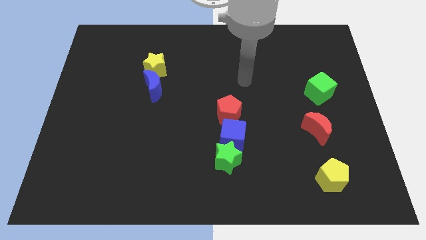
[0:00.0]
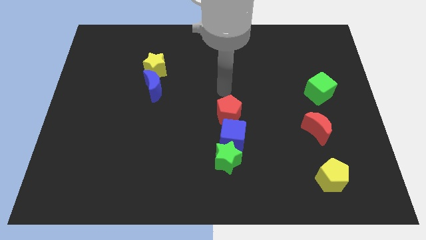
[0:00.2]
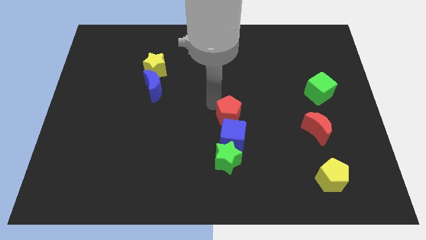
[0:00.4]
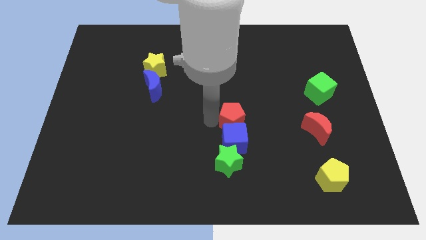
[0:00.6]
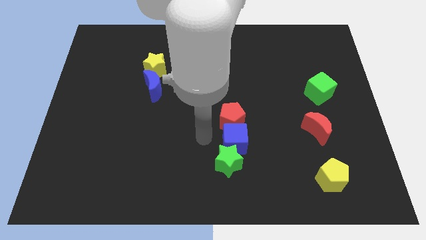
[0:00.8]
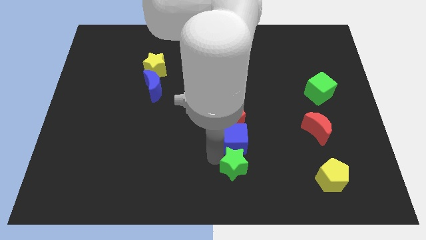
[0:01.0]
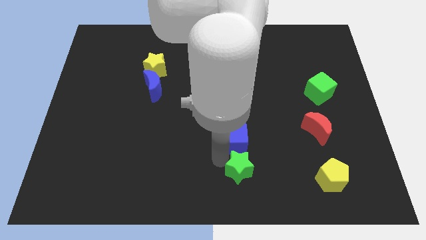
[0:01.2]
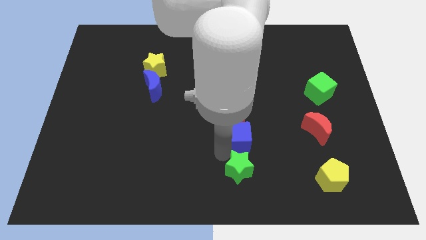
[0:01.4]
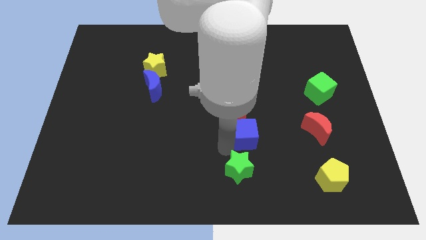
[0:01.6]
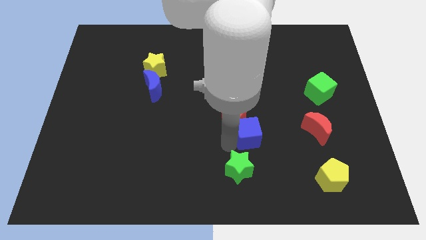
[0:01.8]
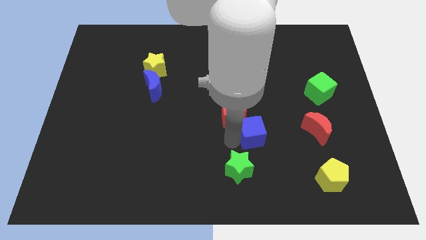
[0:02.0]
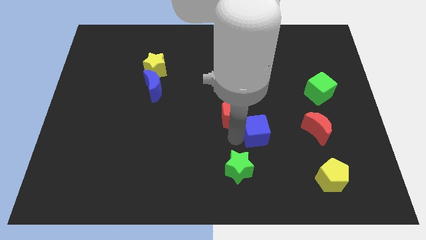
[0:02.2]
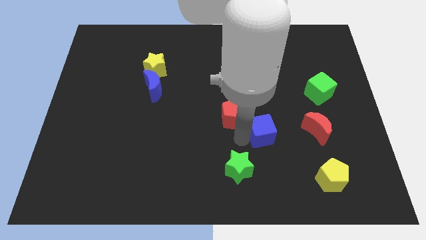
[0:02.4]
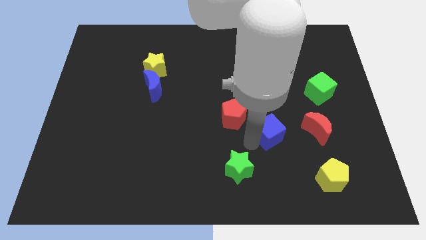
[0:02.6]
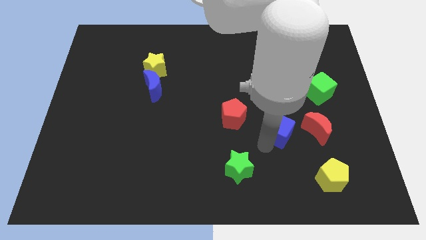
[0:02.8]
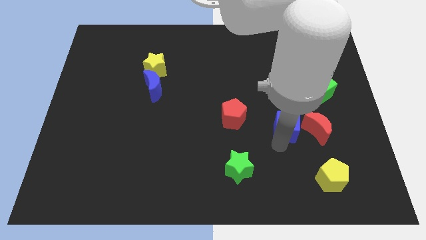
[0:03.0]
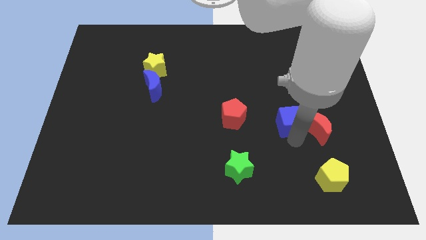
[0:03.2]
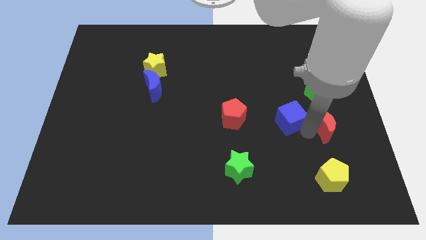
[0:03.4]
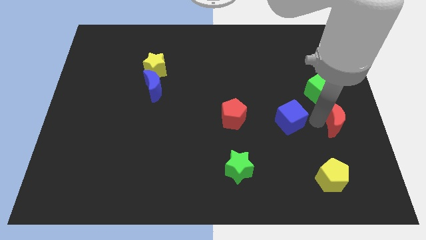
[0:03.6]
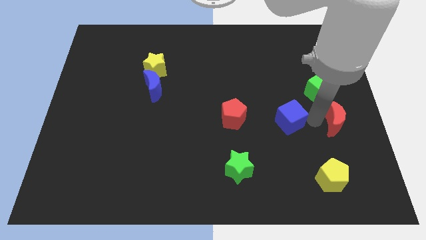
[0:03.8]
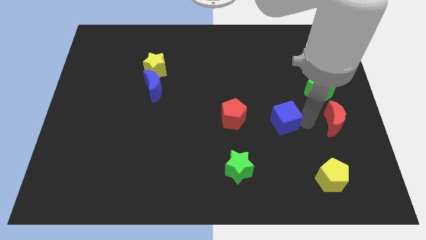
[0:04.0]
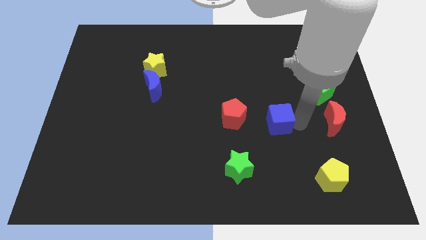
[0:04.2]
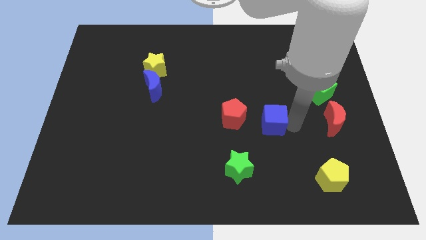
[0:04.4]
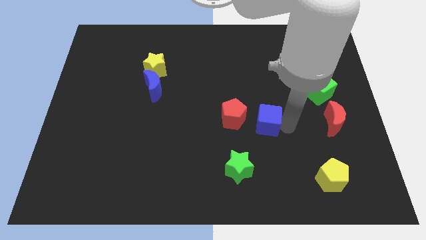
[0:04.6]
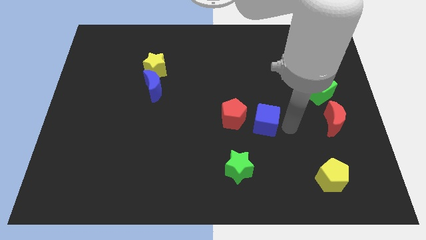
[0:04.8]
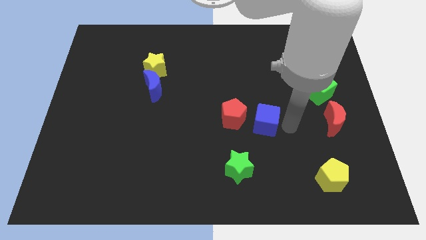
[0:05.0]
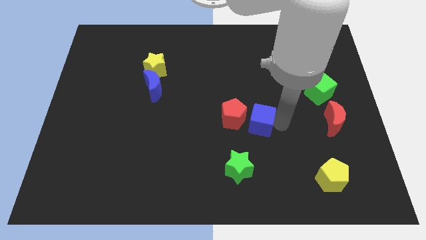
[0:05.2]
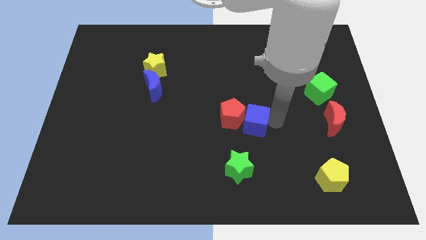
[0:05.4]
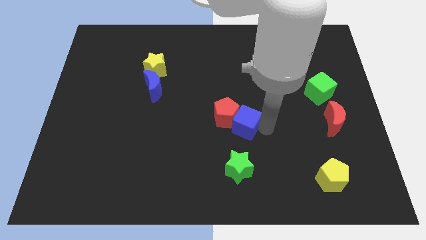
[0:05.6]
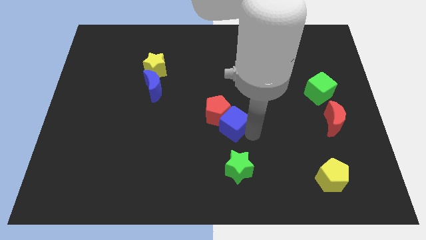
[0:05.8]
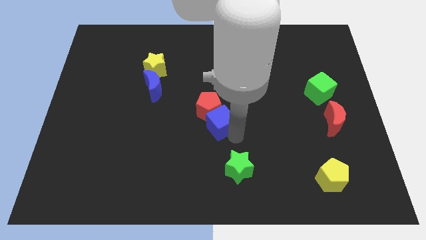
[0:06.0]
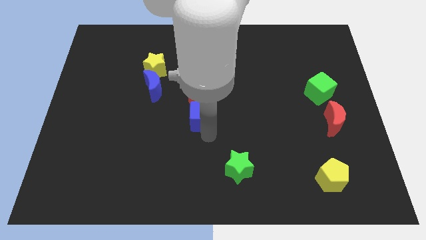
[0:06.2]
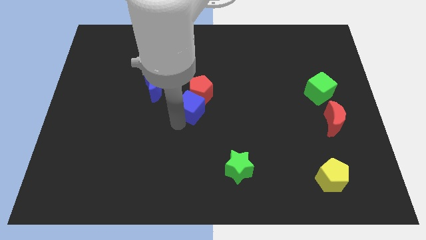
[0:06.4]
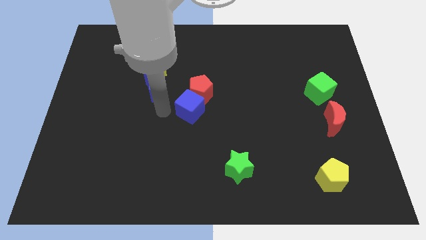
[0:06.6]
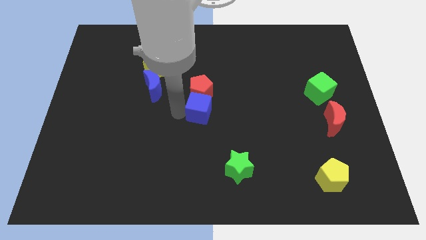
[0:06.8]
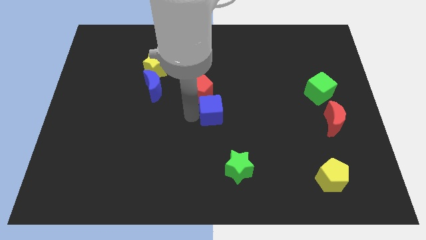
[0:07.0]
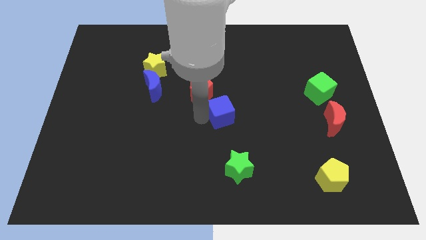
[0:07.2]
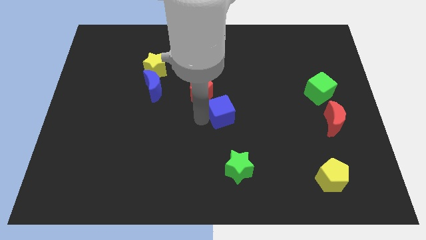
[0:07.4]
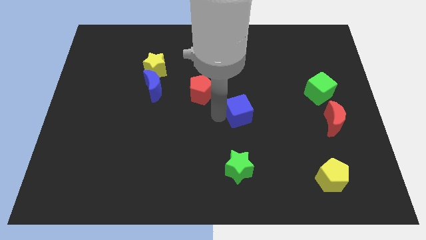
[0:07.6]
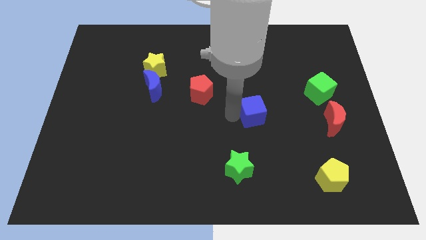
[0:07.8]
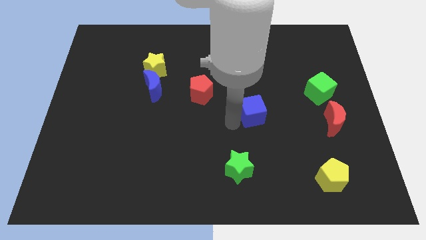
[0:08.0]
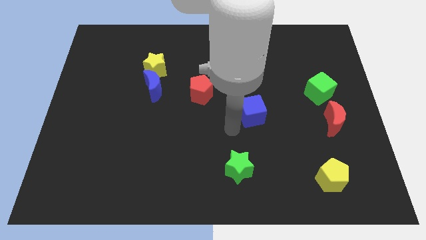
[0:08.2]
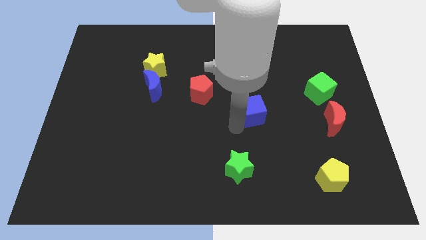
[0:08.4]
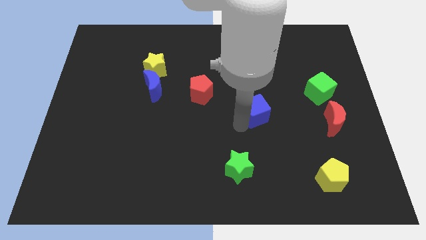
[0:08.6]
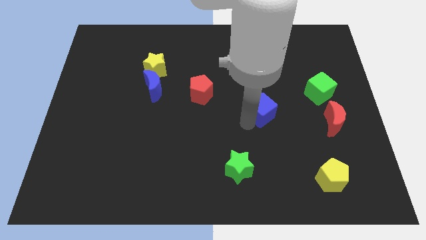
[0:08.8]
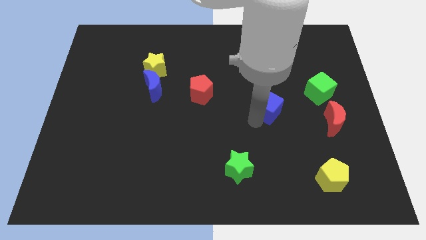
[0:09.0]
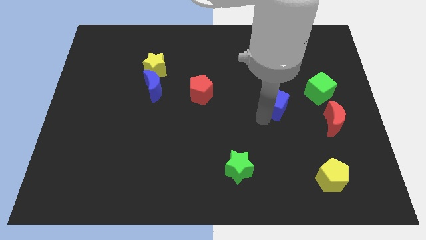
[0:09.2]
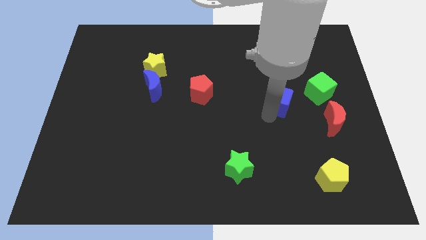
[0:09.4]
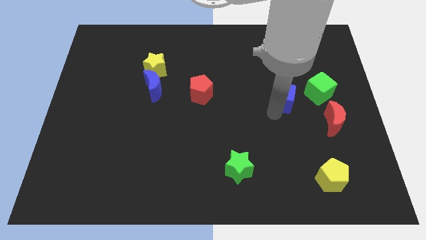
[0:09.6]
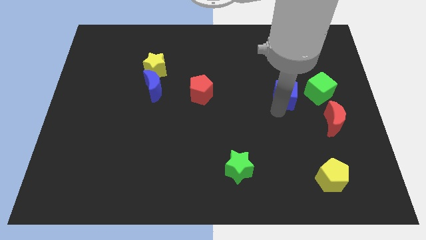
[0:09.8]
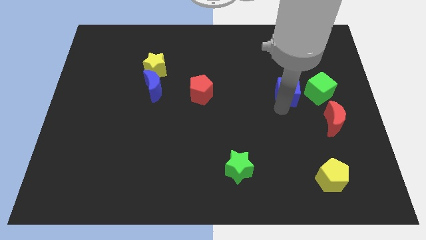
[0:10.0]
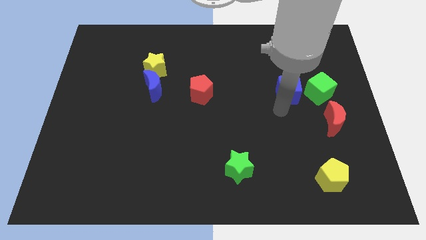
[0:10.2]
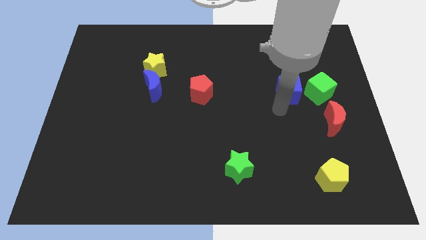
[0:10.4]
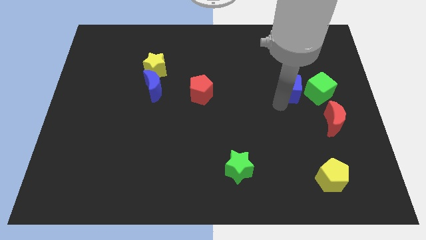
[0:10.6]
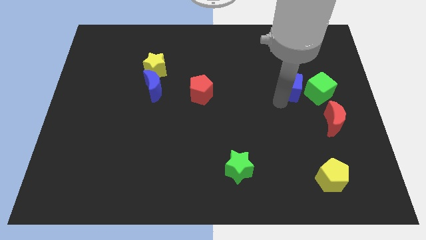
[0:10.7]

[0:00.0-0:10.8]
move the blue cube to the top left side of the green cube
